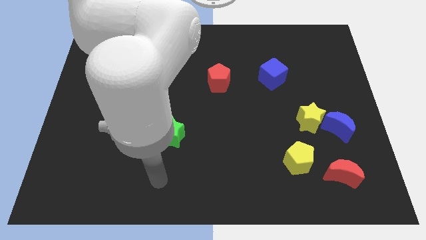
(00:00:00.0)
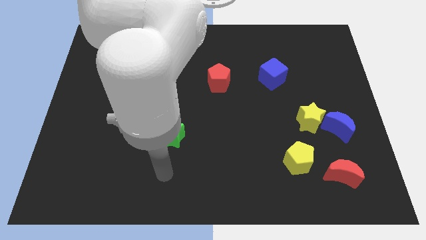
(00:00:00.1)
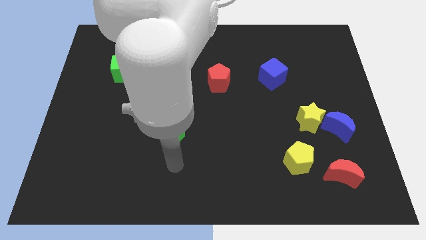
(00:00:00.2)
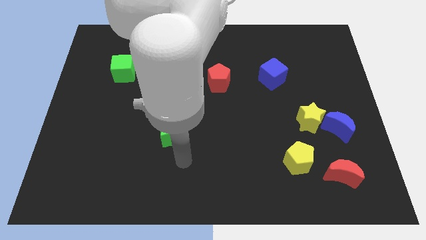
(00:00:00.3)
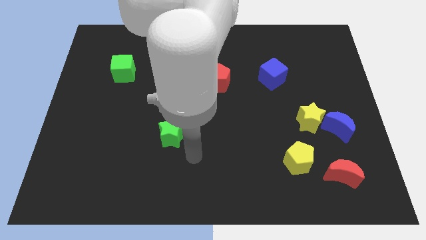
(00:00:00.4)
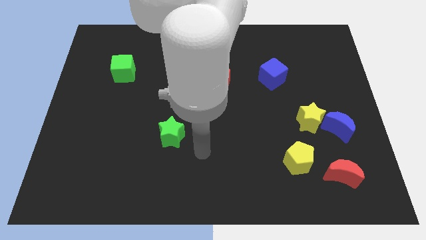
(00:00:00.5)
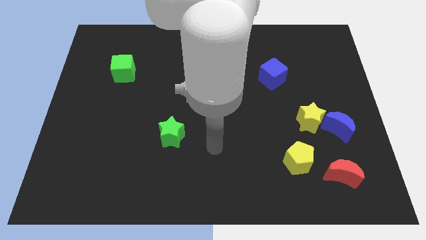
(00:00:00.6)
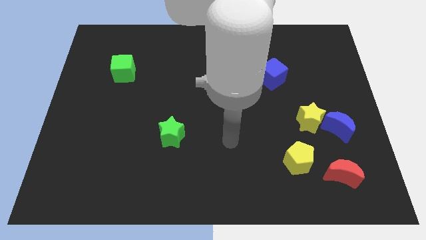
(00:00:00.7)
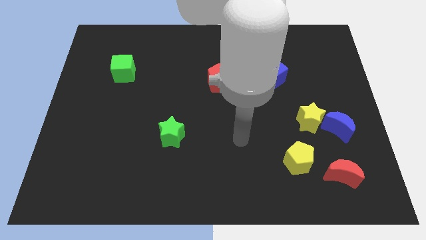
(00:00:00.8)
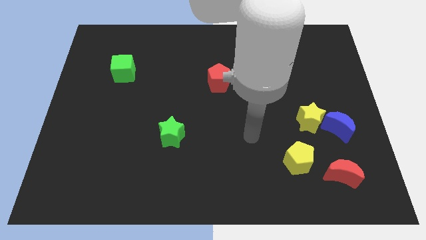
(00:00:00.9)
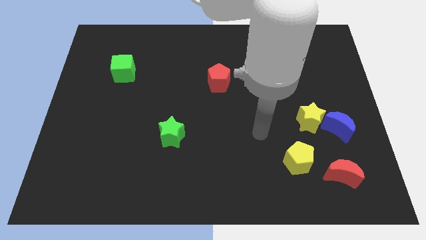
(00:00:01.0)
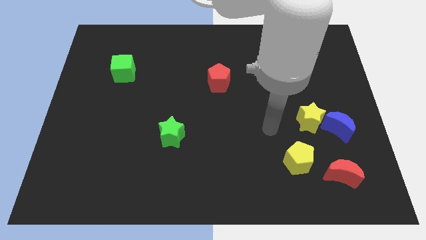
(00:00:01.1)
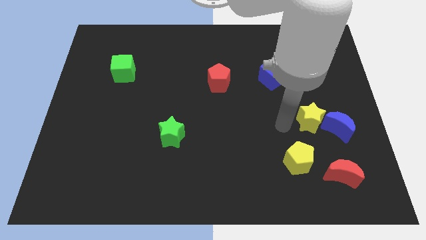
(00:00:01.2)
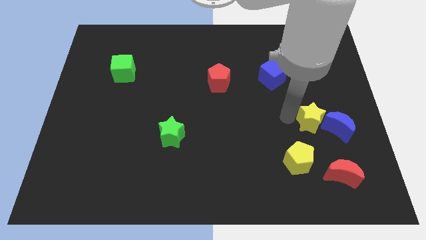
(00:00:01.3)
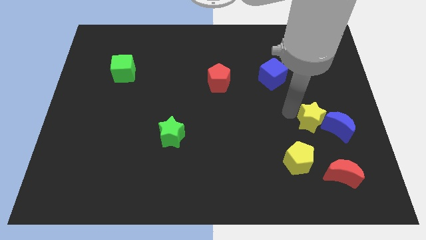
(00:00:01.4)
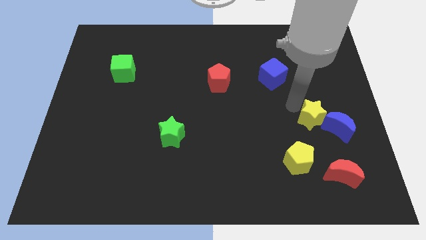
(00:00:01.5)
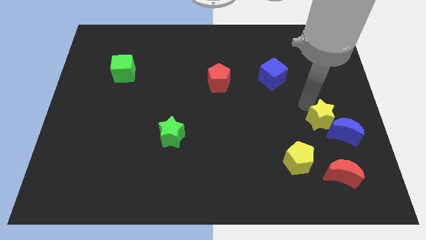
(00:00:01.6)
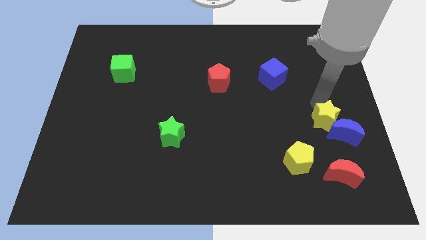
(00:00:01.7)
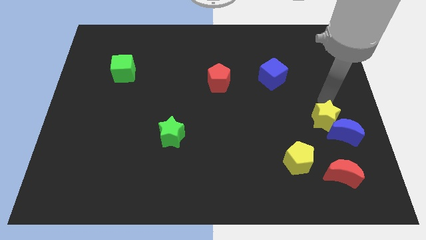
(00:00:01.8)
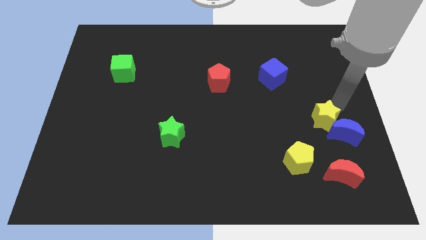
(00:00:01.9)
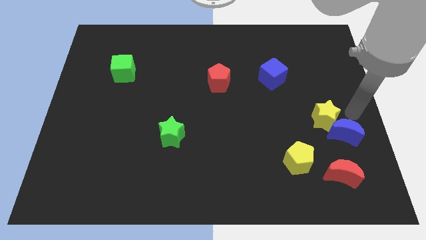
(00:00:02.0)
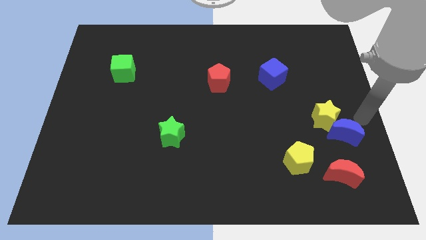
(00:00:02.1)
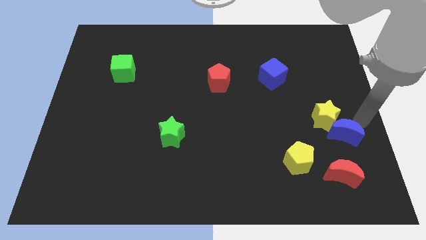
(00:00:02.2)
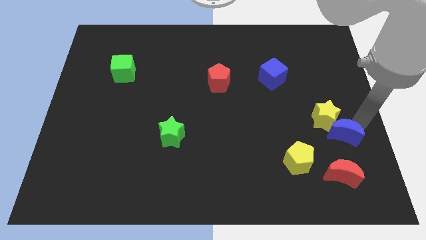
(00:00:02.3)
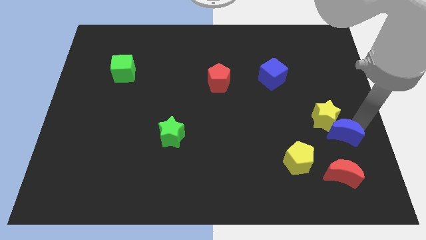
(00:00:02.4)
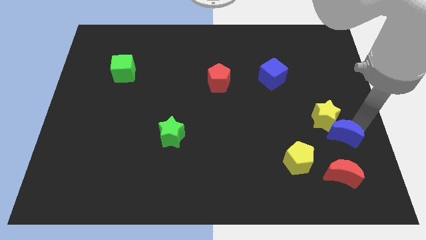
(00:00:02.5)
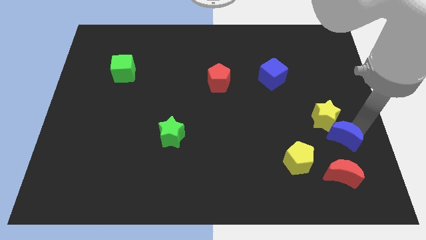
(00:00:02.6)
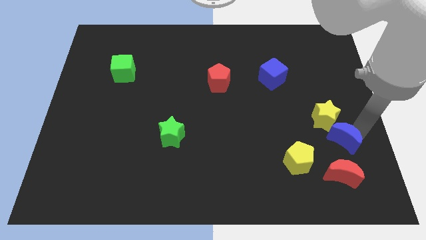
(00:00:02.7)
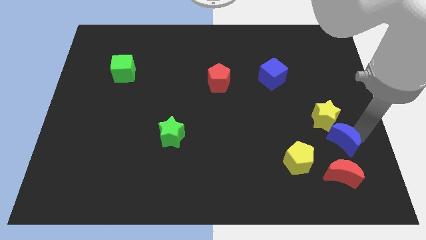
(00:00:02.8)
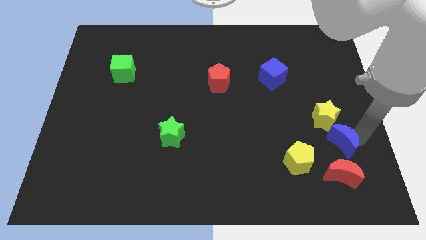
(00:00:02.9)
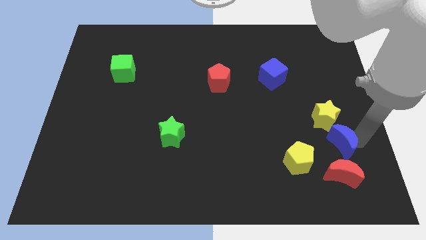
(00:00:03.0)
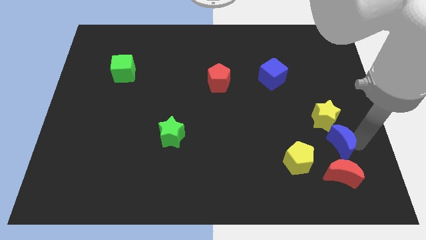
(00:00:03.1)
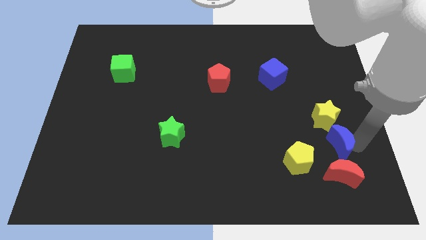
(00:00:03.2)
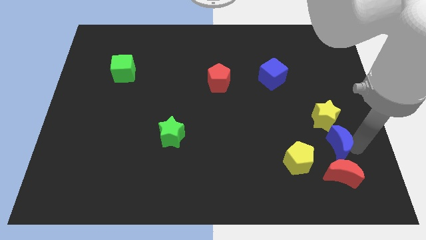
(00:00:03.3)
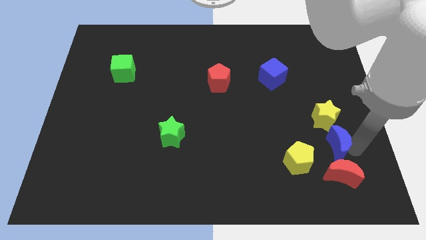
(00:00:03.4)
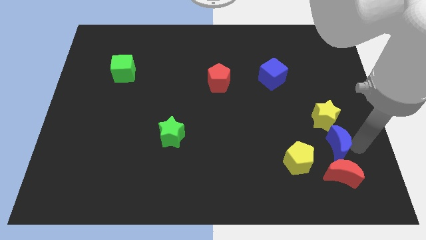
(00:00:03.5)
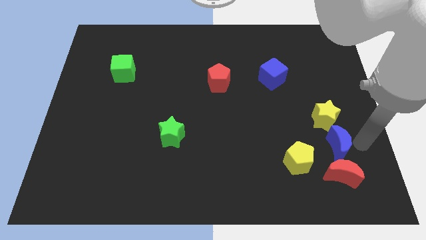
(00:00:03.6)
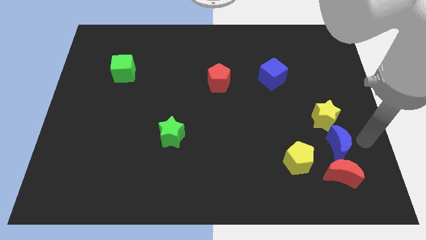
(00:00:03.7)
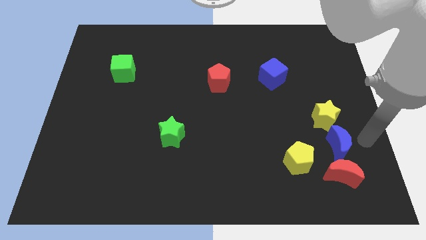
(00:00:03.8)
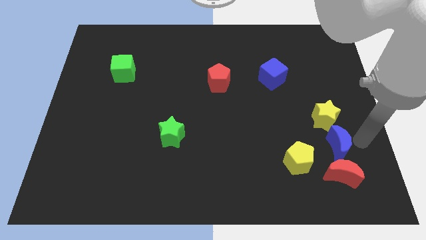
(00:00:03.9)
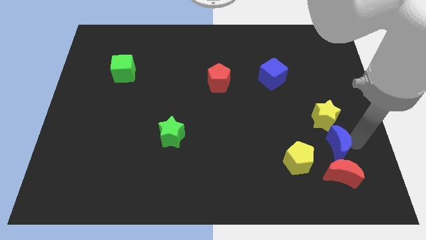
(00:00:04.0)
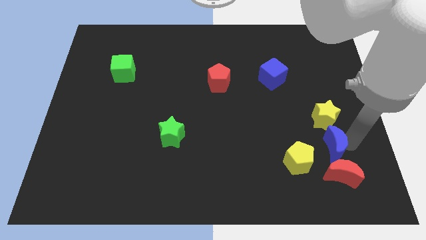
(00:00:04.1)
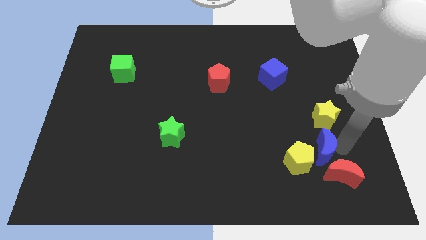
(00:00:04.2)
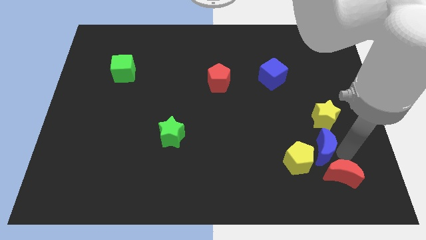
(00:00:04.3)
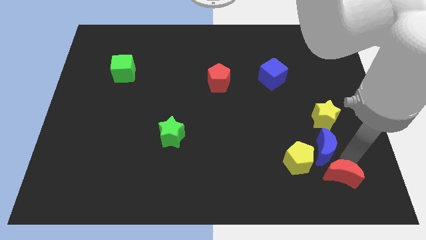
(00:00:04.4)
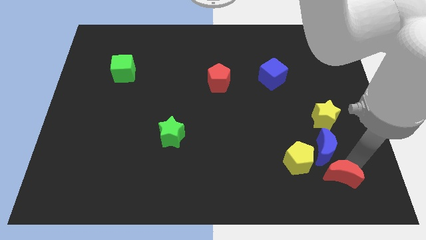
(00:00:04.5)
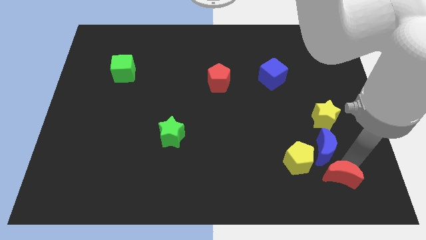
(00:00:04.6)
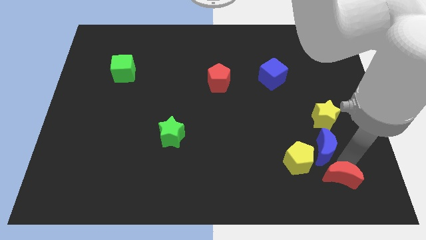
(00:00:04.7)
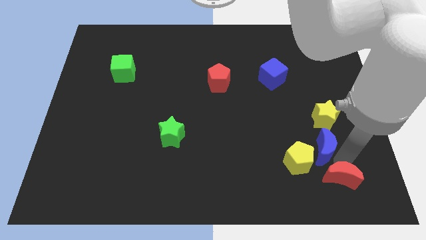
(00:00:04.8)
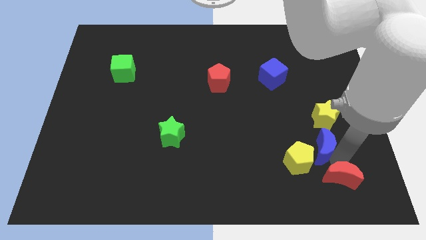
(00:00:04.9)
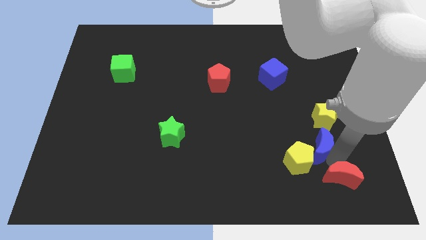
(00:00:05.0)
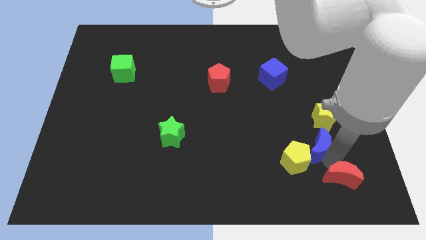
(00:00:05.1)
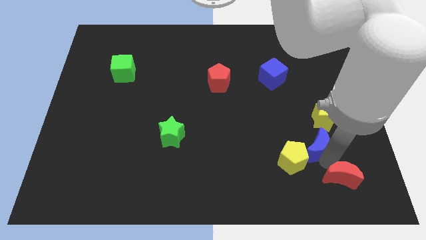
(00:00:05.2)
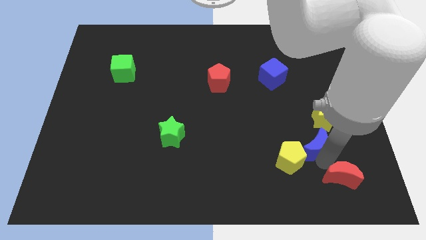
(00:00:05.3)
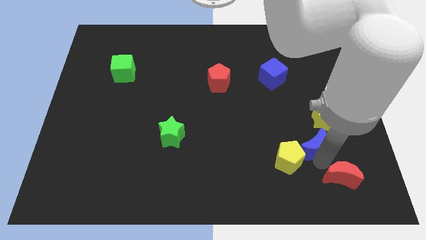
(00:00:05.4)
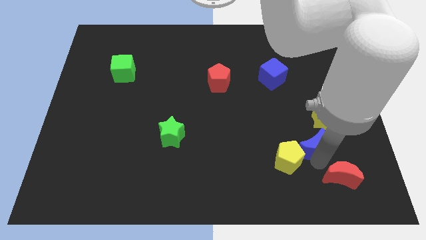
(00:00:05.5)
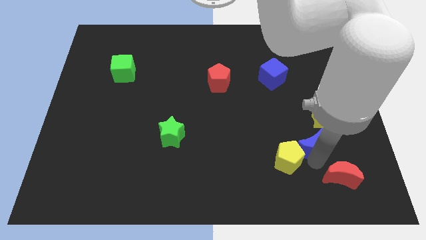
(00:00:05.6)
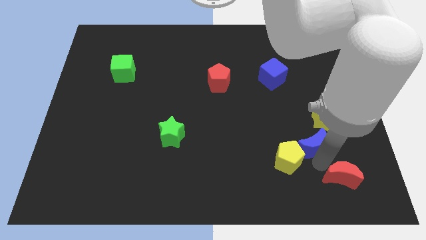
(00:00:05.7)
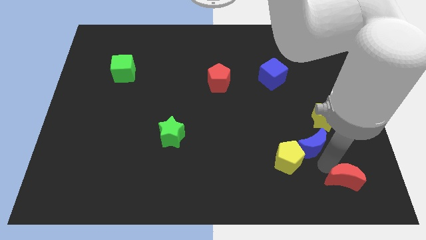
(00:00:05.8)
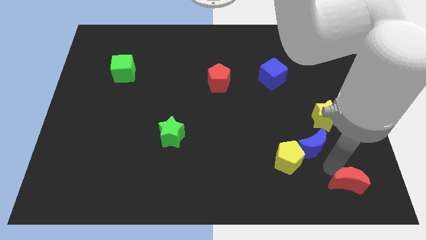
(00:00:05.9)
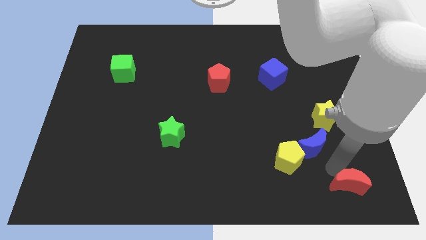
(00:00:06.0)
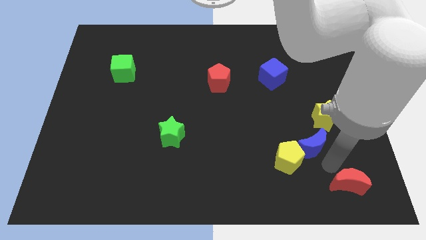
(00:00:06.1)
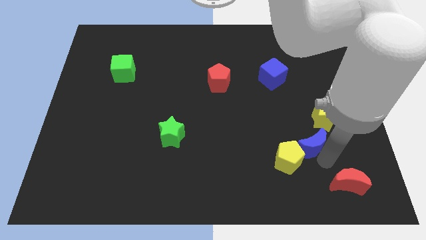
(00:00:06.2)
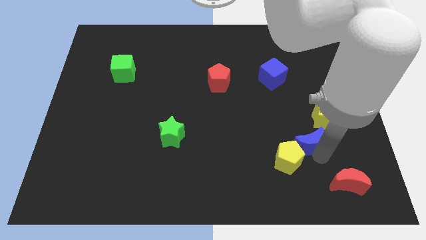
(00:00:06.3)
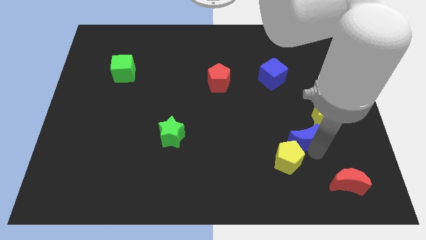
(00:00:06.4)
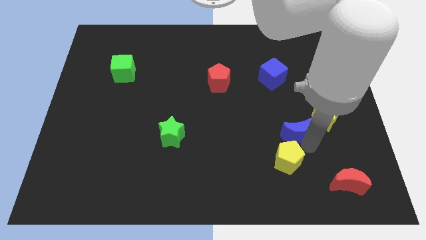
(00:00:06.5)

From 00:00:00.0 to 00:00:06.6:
slide the blue moon to the left side of the yellow star

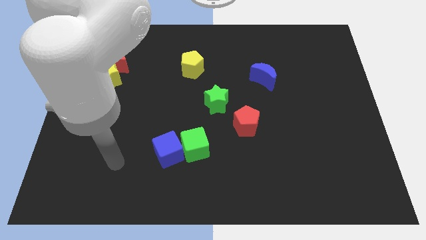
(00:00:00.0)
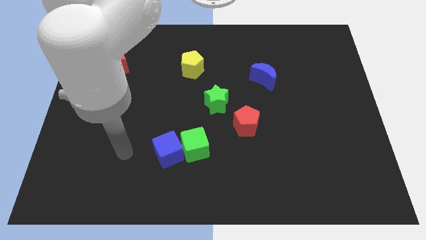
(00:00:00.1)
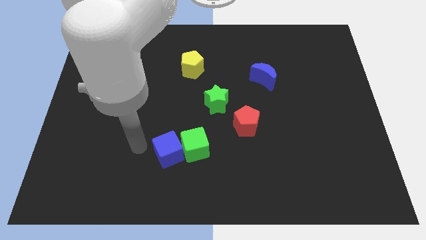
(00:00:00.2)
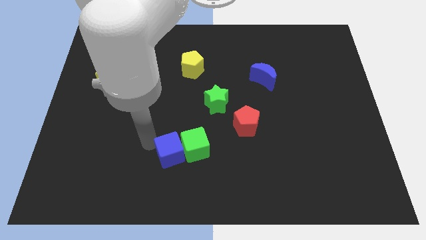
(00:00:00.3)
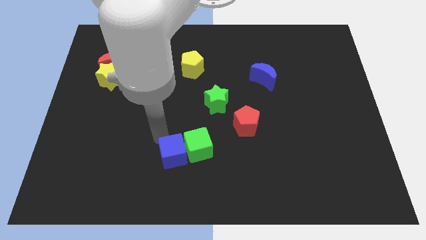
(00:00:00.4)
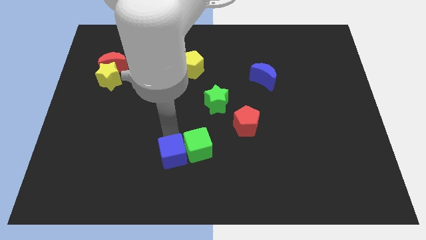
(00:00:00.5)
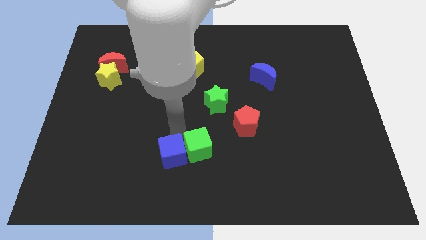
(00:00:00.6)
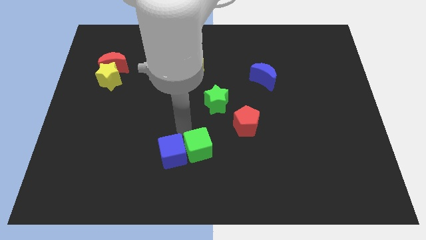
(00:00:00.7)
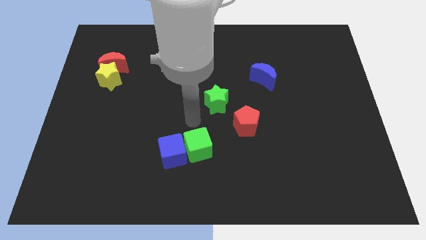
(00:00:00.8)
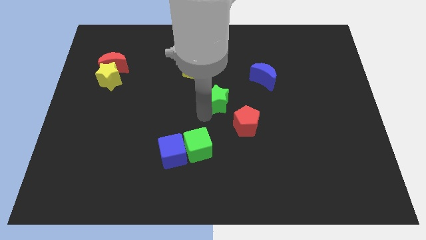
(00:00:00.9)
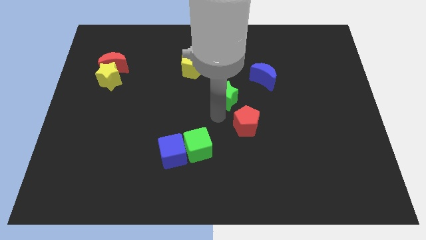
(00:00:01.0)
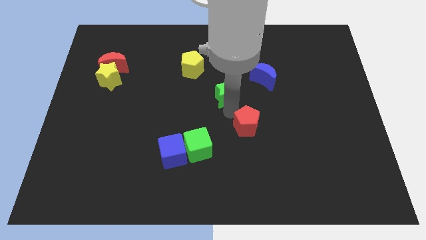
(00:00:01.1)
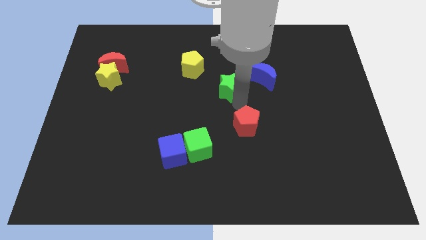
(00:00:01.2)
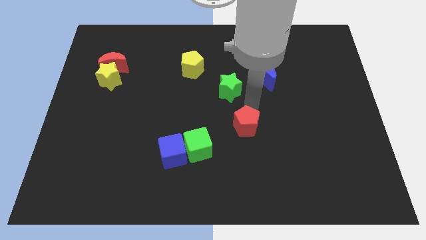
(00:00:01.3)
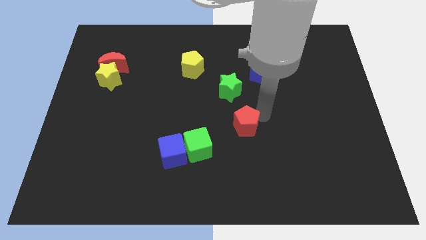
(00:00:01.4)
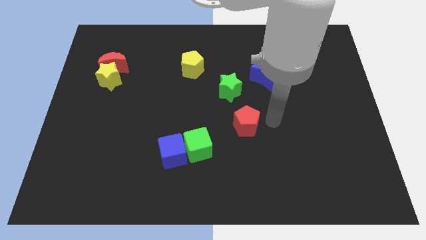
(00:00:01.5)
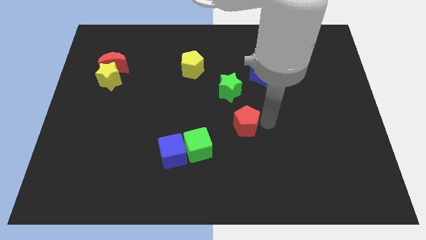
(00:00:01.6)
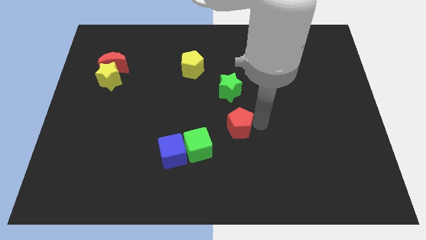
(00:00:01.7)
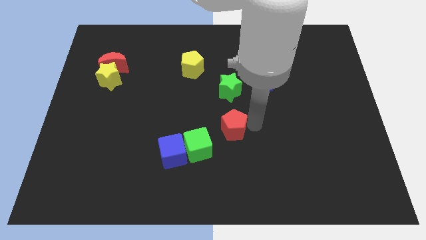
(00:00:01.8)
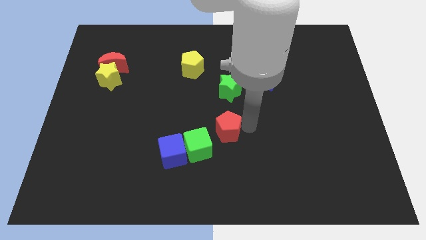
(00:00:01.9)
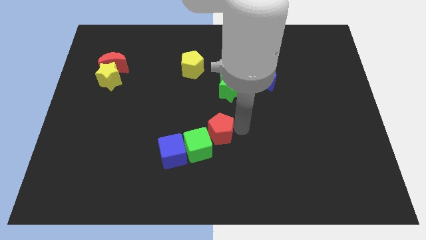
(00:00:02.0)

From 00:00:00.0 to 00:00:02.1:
slide the red pentagon to the top right side of the blue cube
